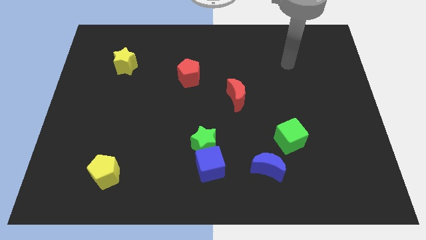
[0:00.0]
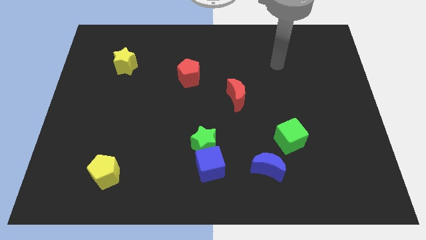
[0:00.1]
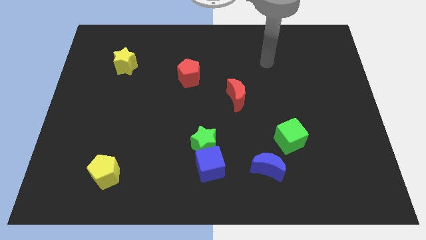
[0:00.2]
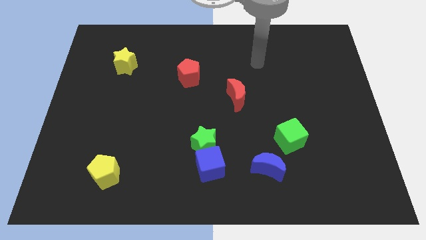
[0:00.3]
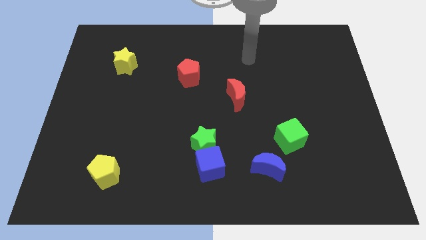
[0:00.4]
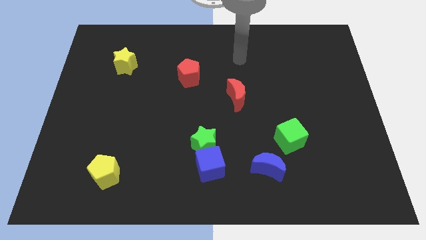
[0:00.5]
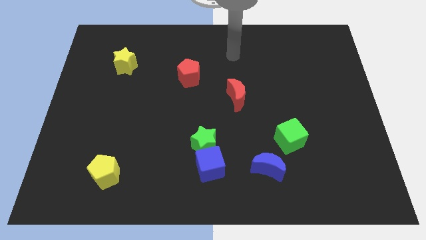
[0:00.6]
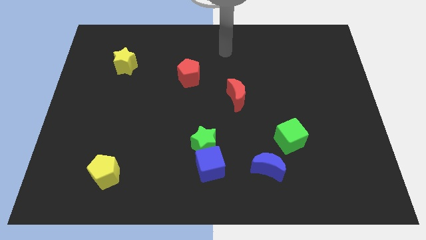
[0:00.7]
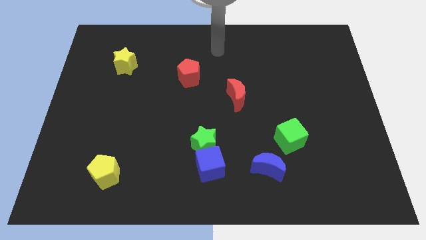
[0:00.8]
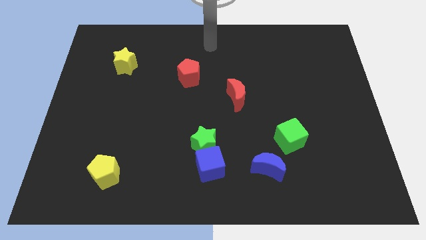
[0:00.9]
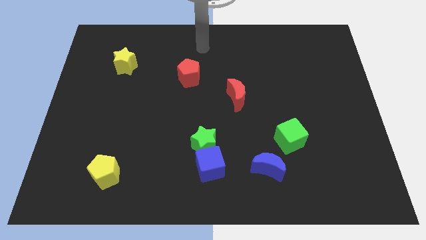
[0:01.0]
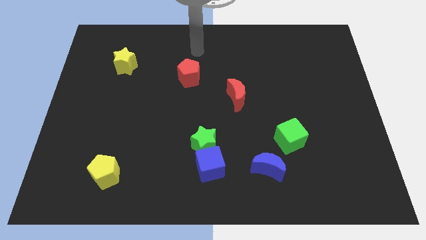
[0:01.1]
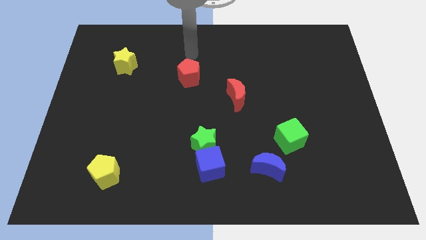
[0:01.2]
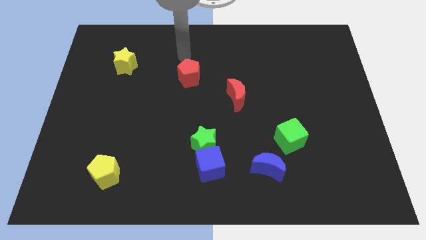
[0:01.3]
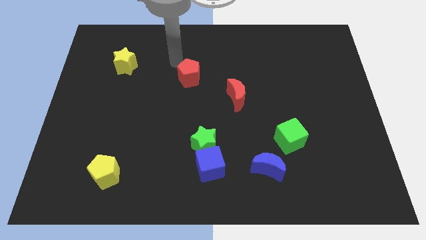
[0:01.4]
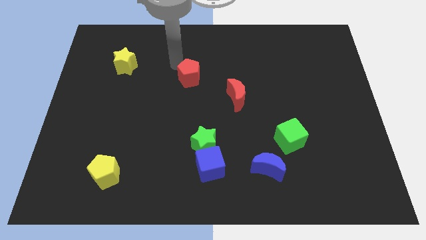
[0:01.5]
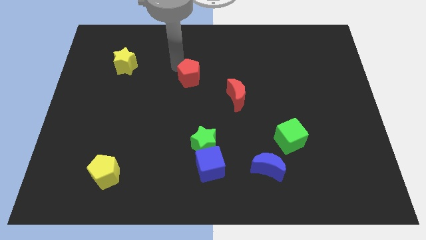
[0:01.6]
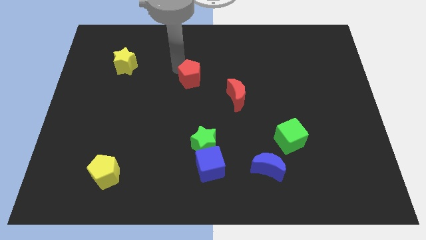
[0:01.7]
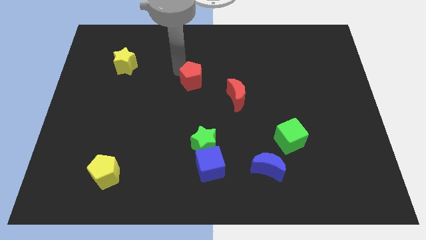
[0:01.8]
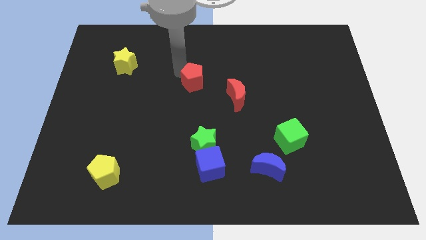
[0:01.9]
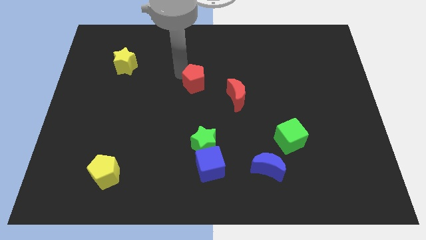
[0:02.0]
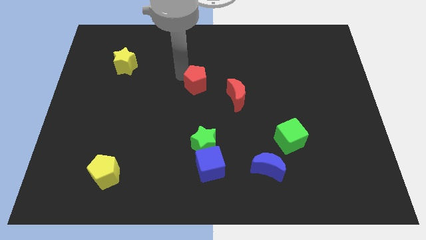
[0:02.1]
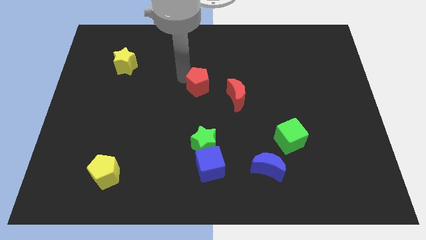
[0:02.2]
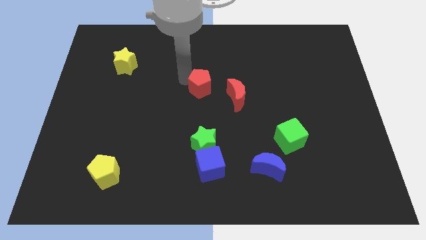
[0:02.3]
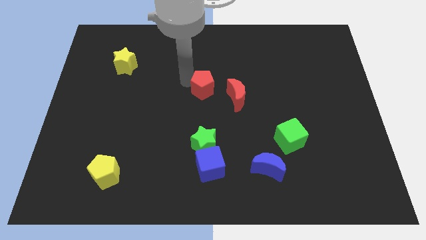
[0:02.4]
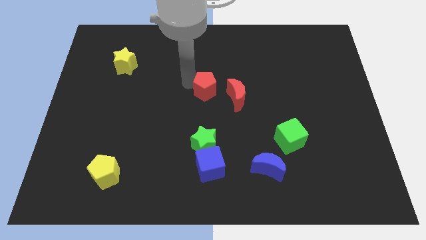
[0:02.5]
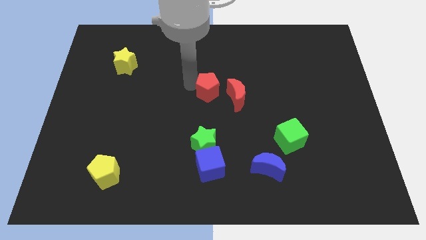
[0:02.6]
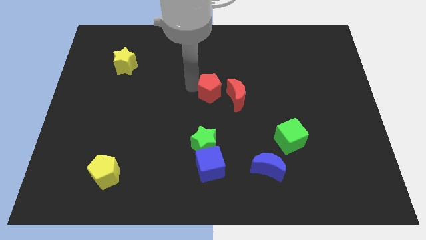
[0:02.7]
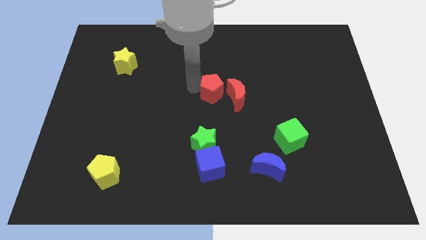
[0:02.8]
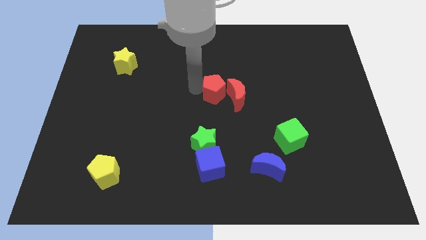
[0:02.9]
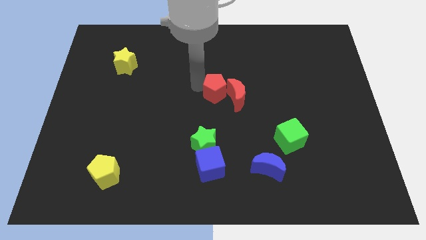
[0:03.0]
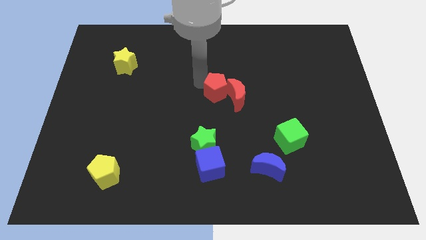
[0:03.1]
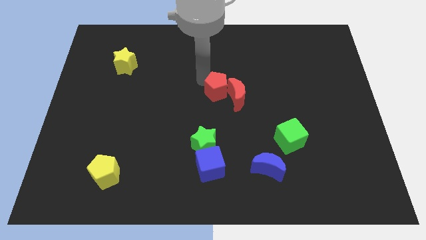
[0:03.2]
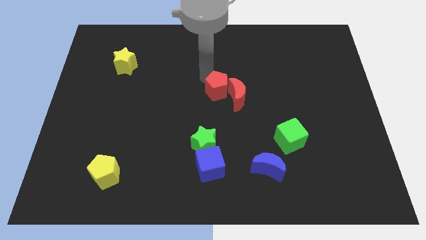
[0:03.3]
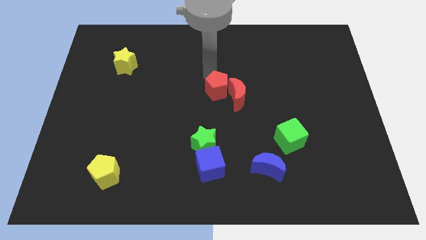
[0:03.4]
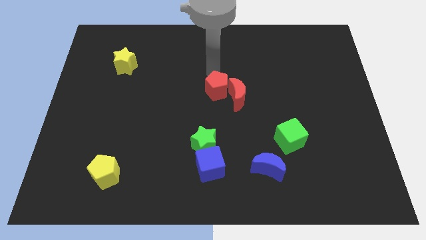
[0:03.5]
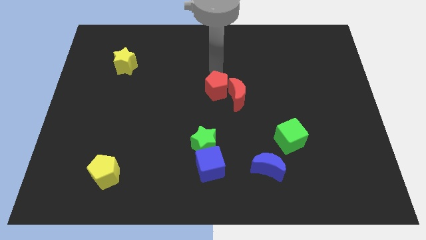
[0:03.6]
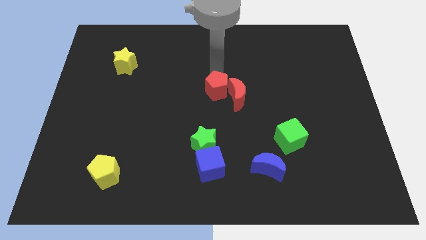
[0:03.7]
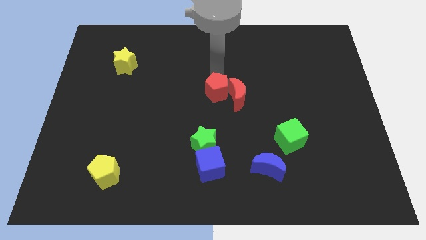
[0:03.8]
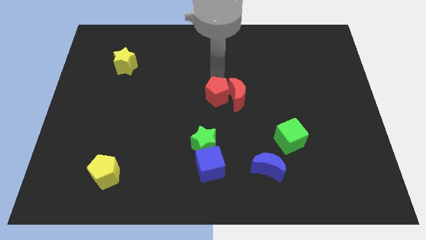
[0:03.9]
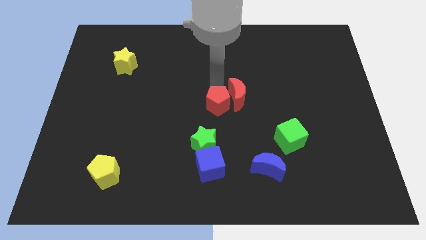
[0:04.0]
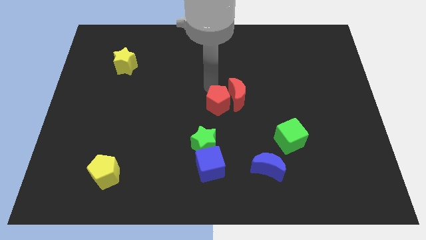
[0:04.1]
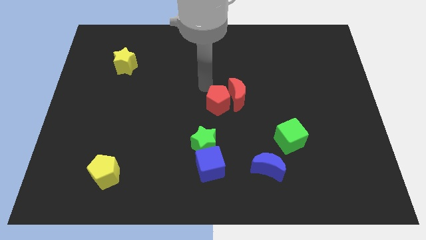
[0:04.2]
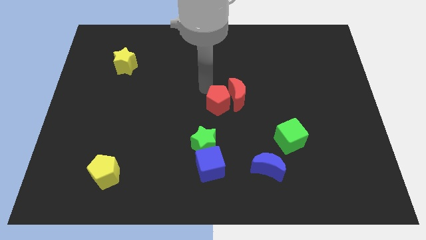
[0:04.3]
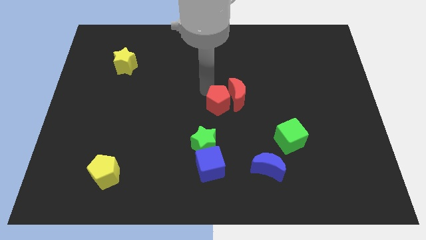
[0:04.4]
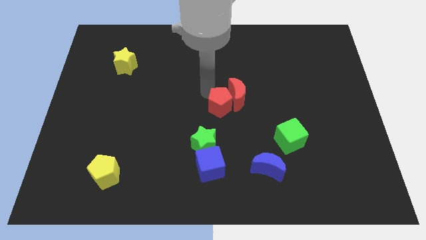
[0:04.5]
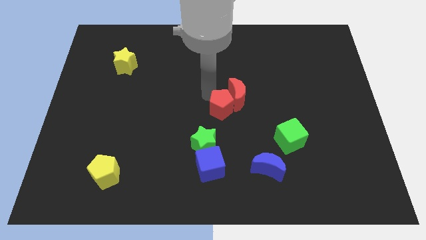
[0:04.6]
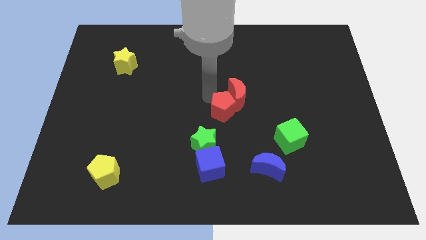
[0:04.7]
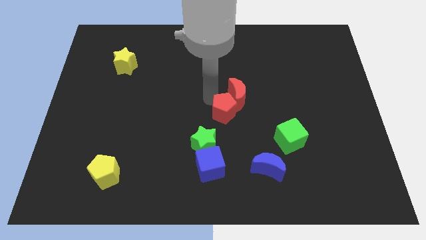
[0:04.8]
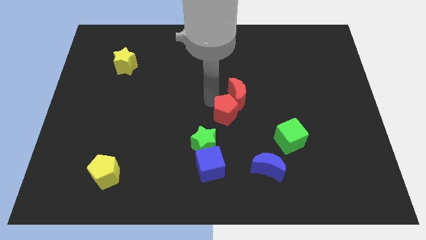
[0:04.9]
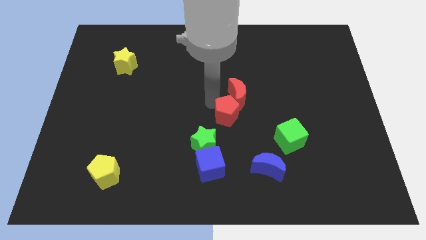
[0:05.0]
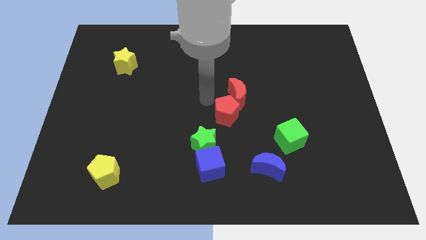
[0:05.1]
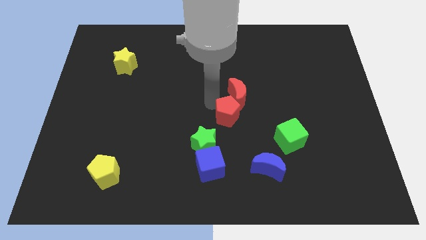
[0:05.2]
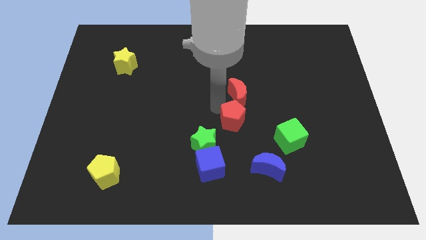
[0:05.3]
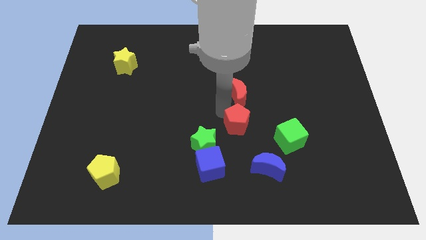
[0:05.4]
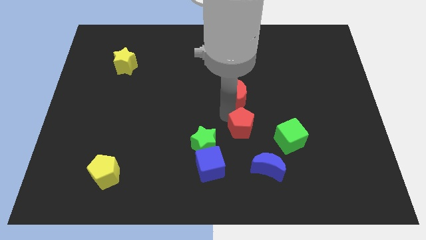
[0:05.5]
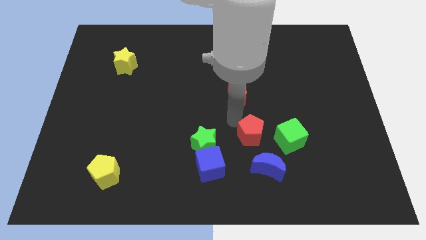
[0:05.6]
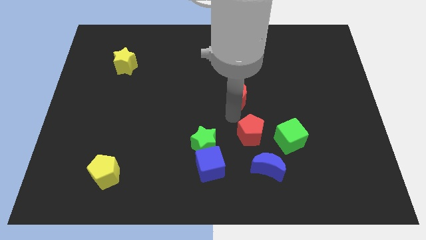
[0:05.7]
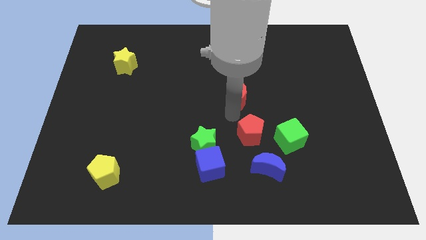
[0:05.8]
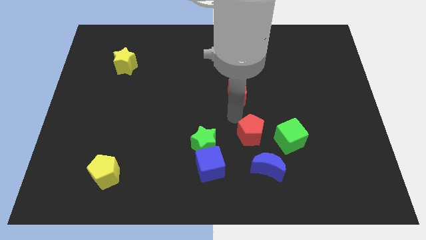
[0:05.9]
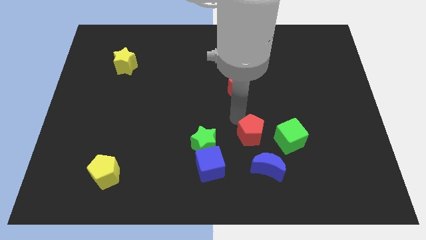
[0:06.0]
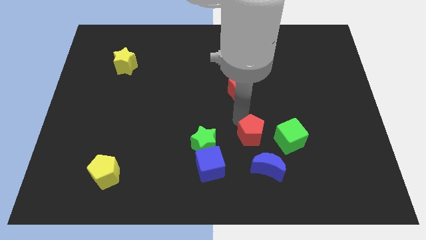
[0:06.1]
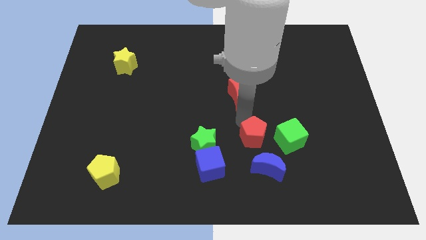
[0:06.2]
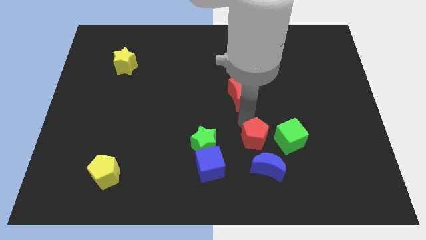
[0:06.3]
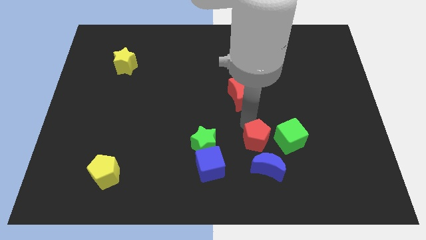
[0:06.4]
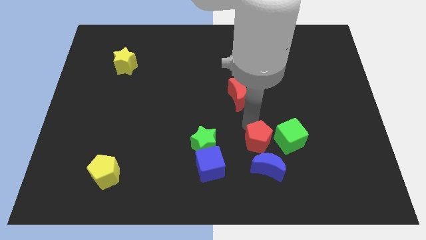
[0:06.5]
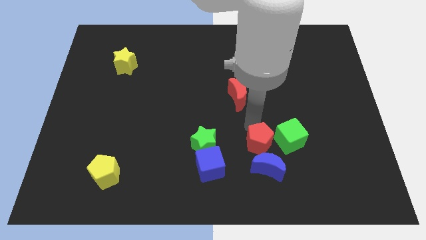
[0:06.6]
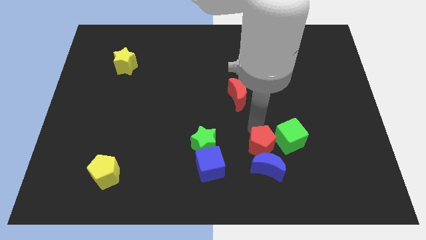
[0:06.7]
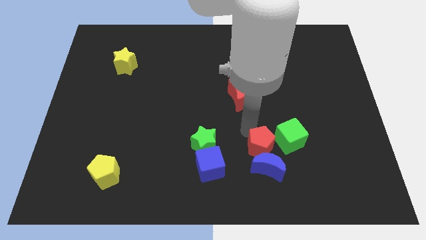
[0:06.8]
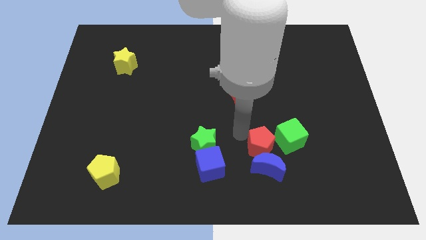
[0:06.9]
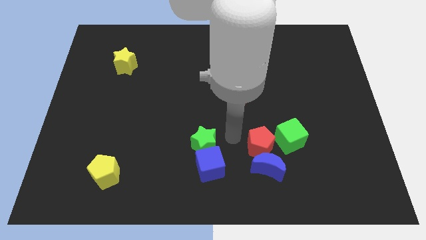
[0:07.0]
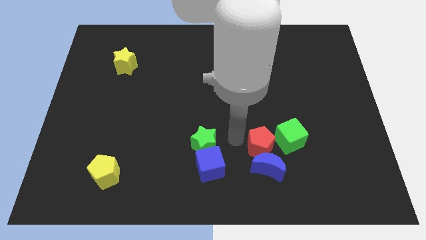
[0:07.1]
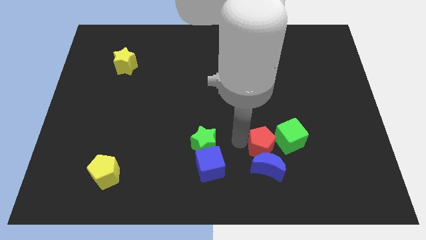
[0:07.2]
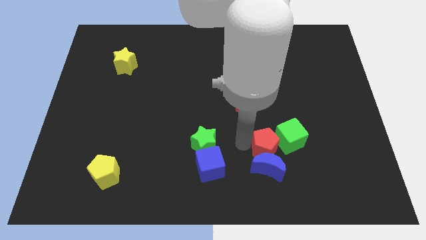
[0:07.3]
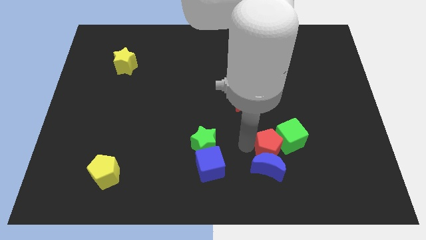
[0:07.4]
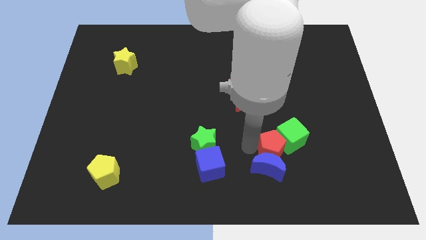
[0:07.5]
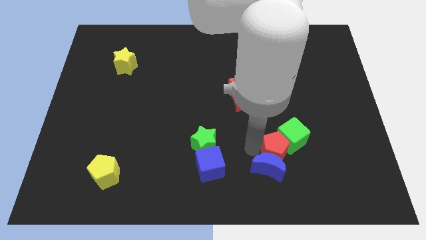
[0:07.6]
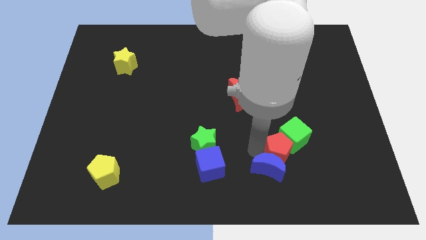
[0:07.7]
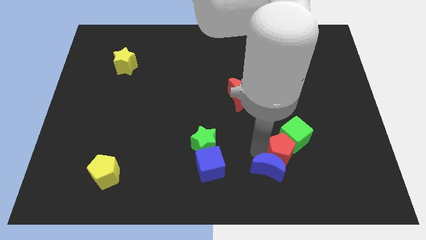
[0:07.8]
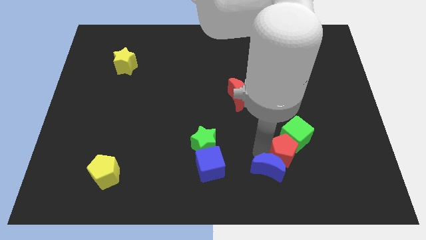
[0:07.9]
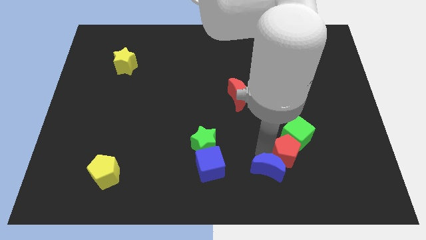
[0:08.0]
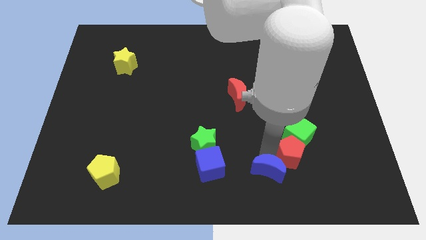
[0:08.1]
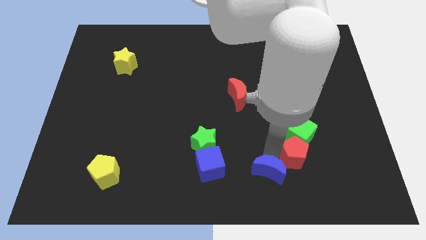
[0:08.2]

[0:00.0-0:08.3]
move the red pentagon to the bottom right side of the green cube
